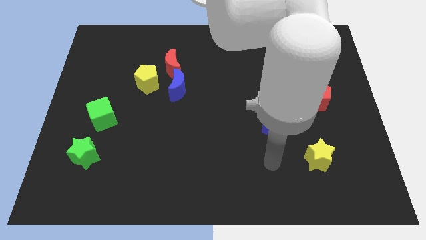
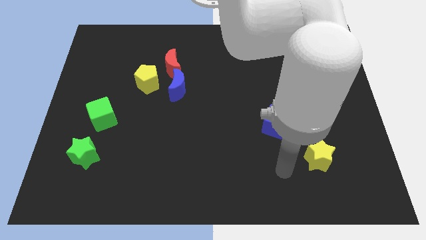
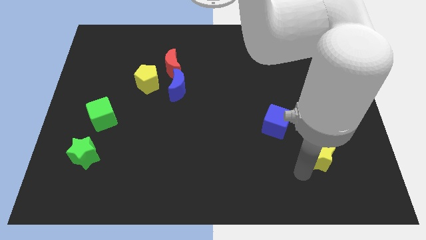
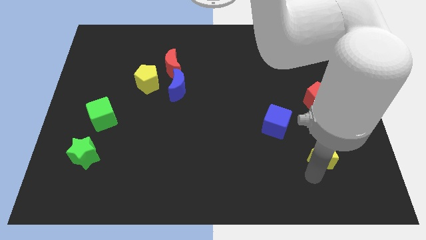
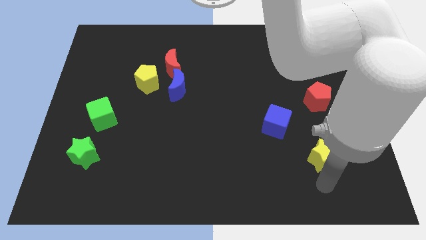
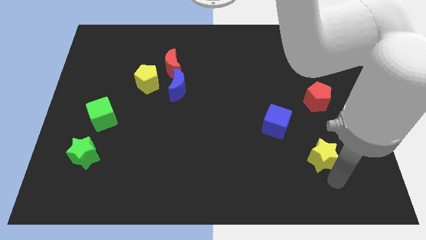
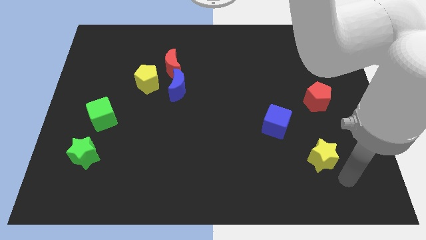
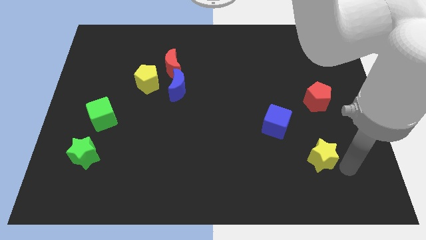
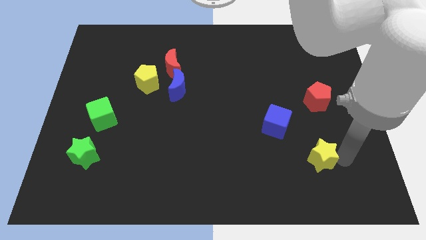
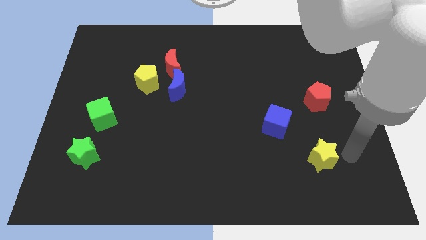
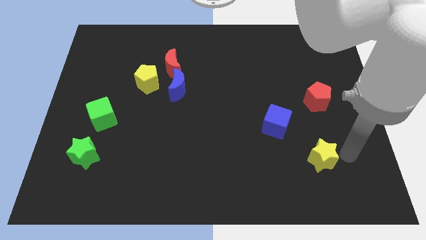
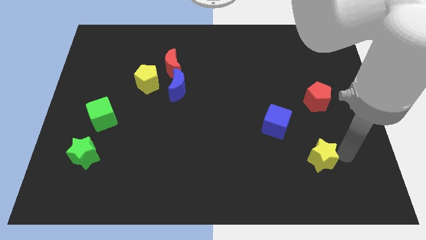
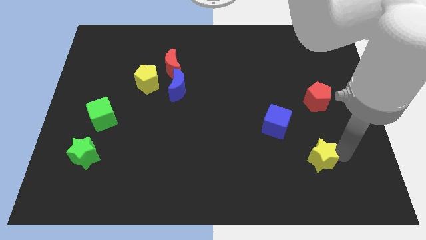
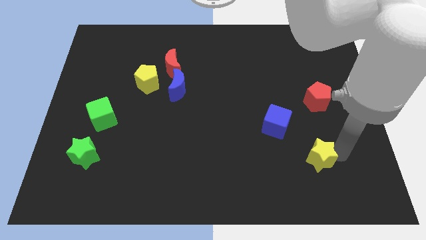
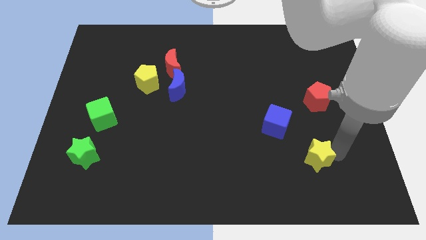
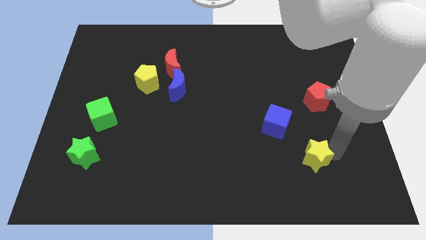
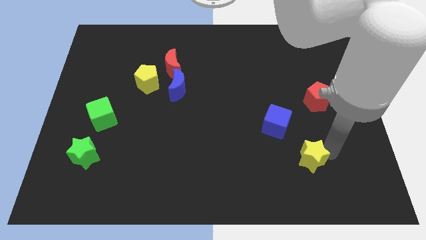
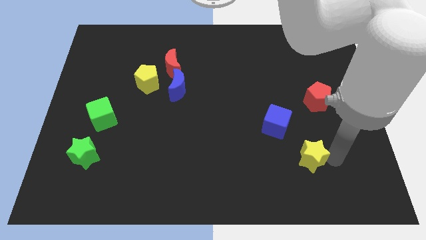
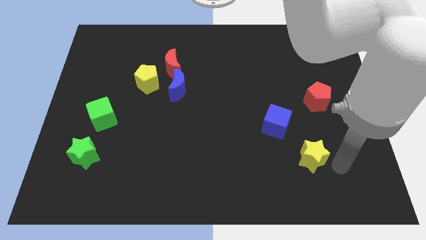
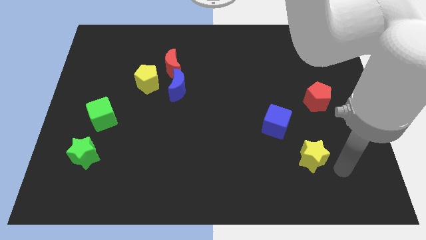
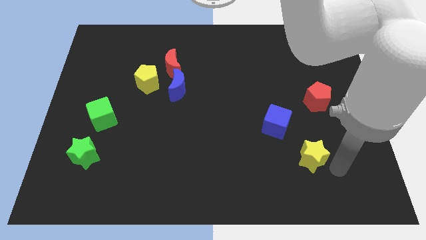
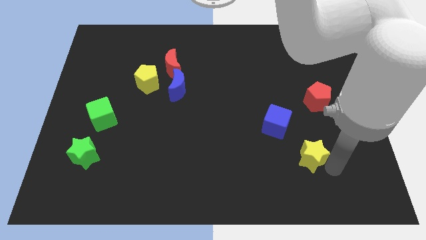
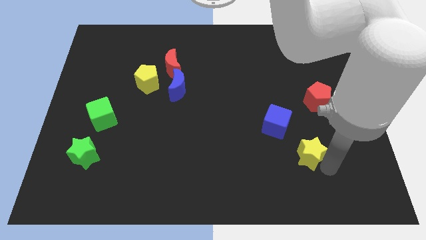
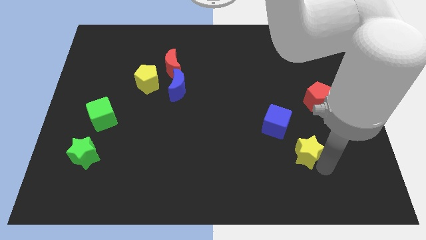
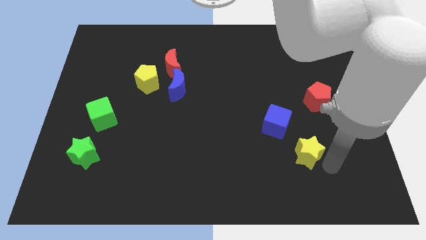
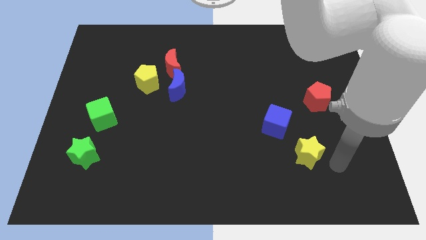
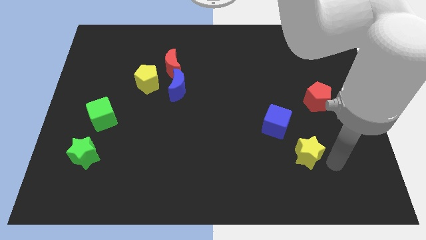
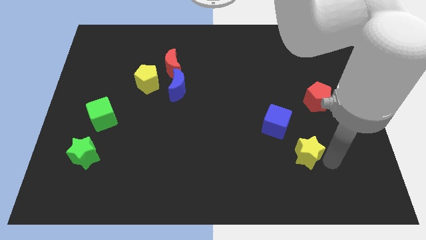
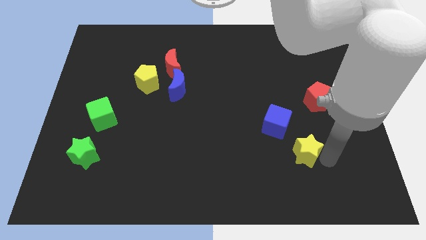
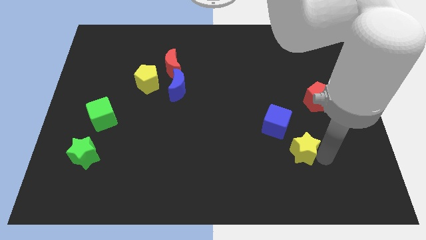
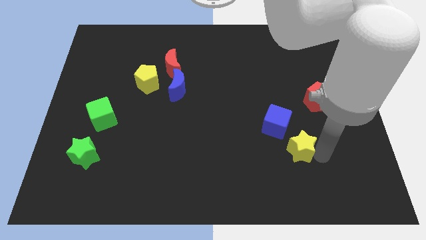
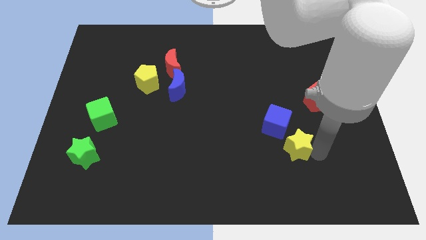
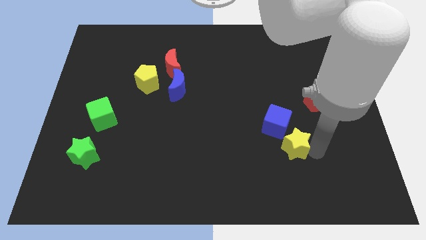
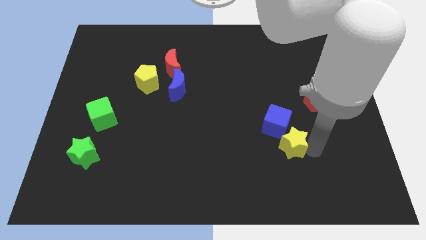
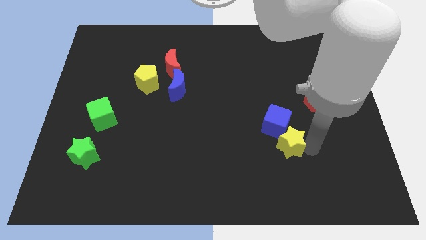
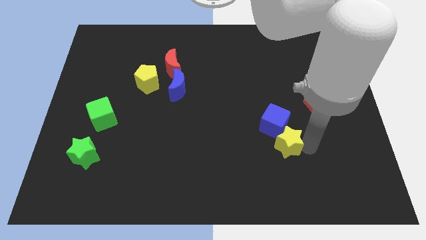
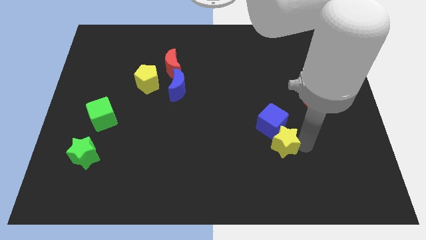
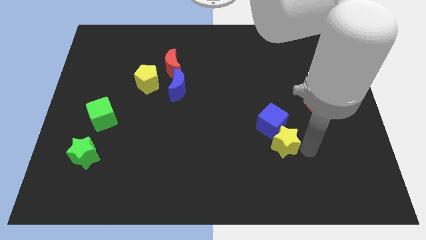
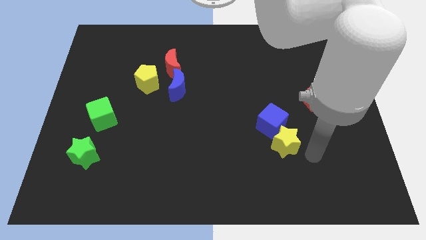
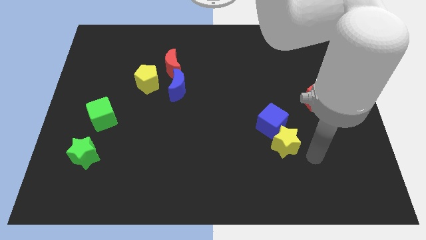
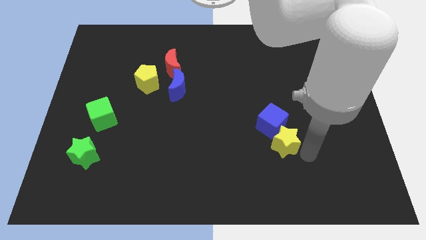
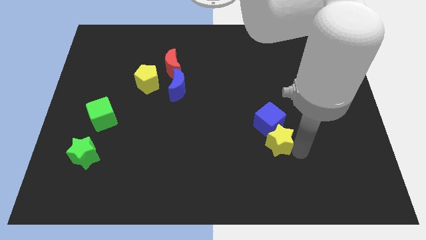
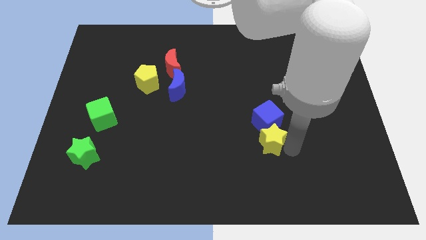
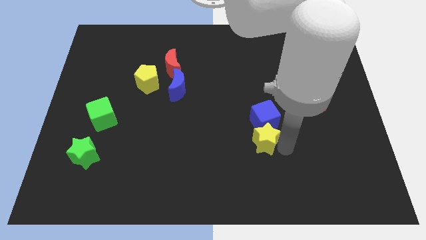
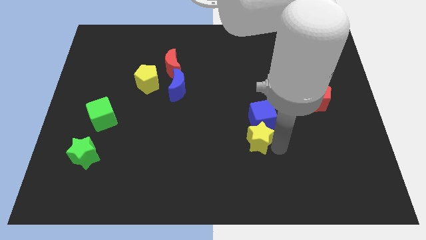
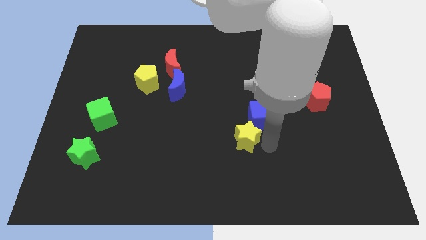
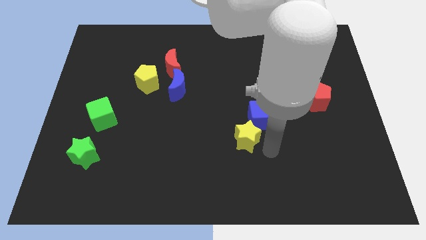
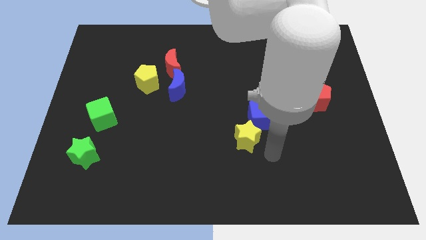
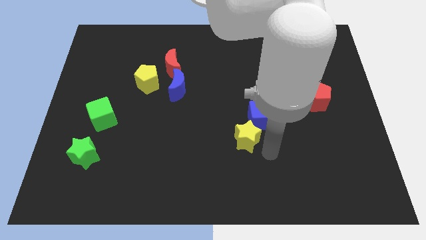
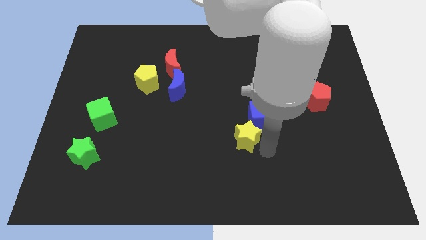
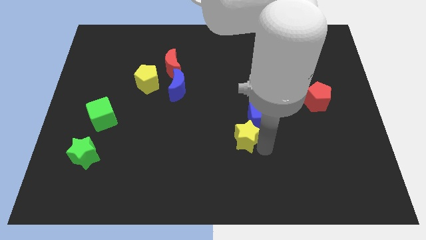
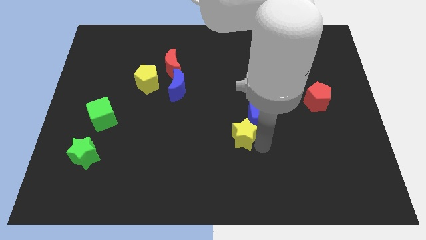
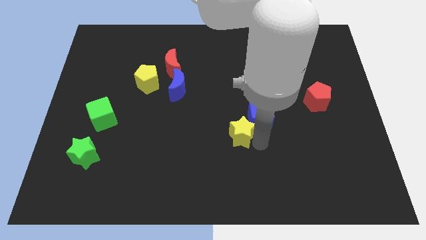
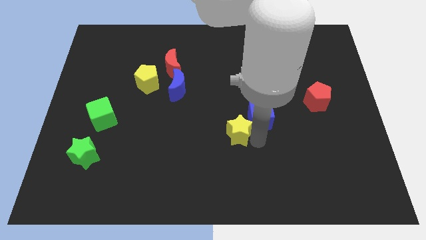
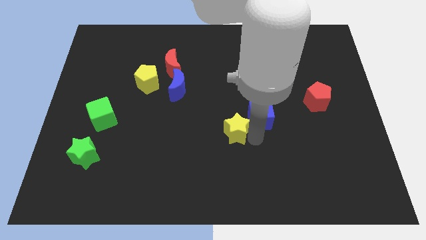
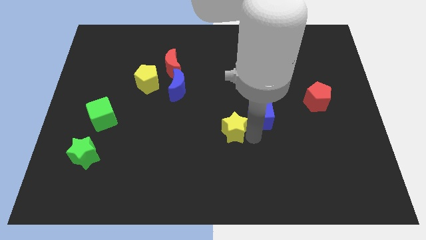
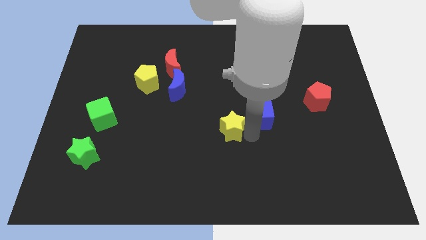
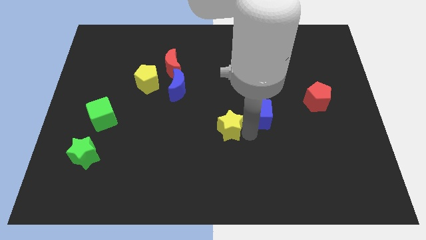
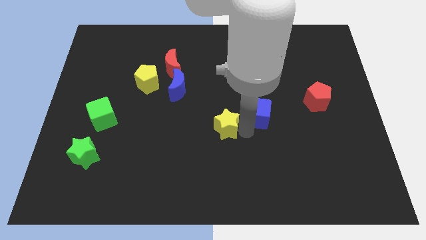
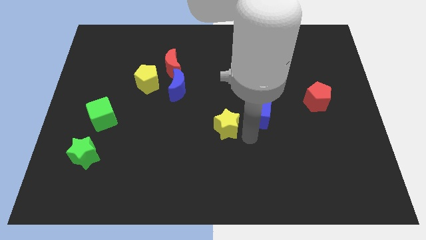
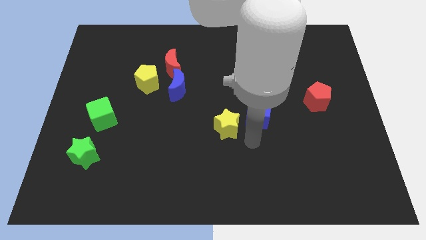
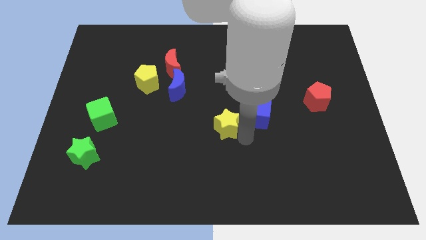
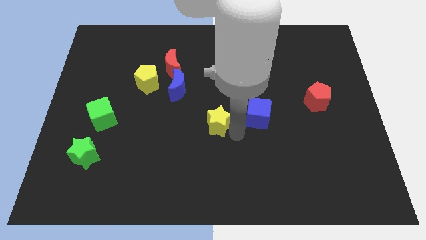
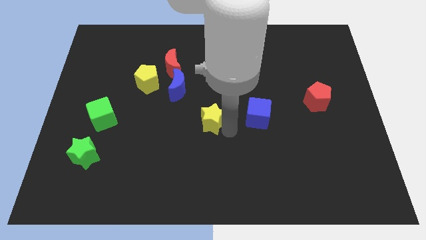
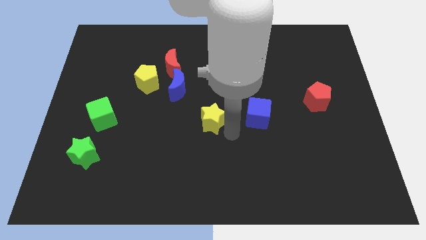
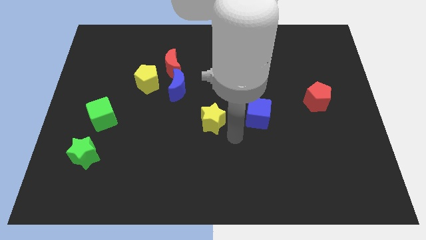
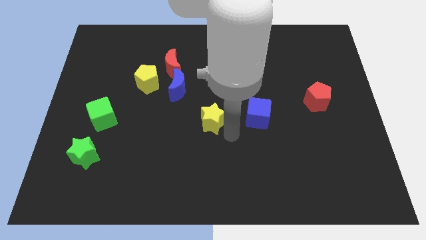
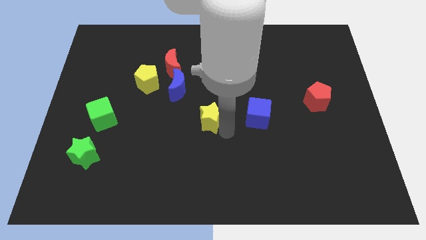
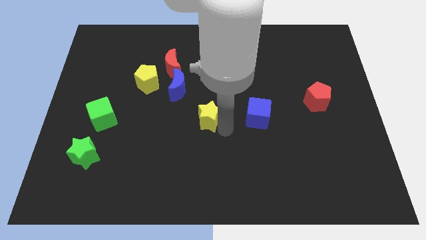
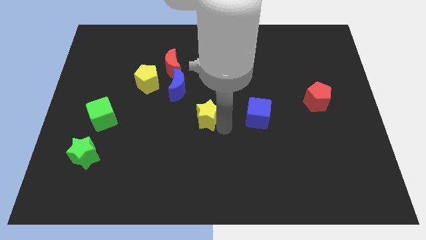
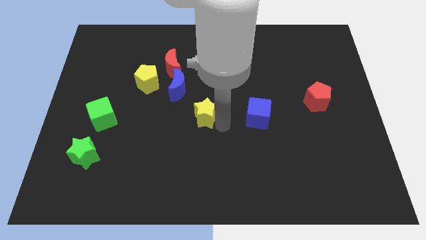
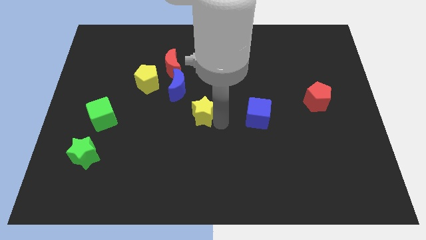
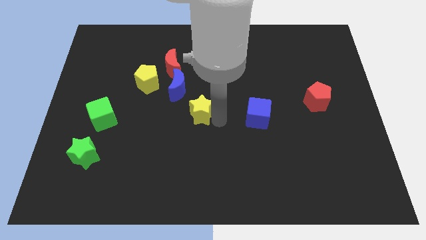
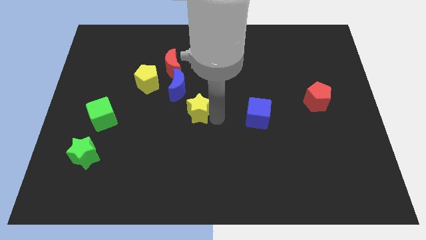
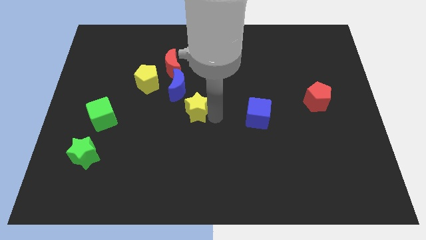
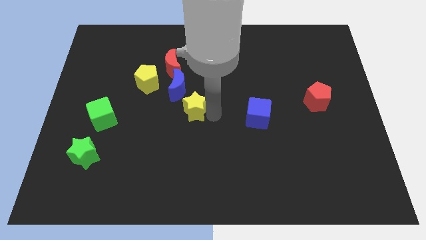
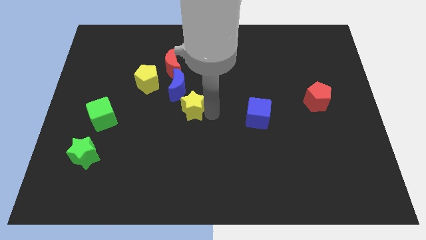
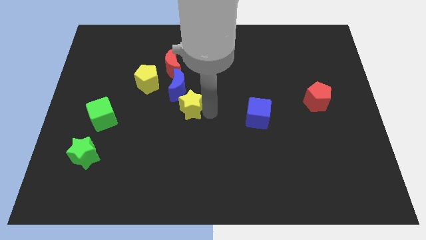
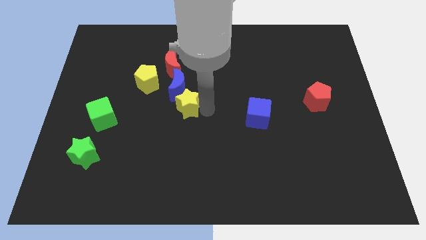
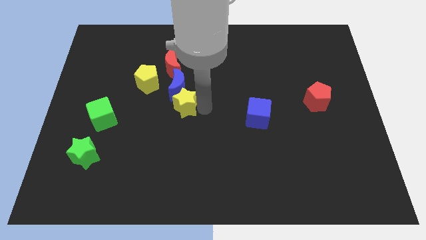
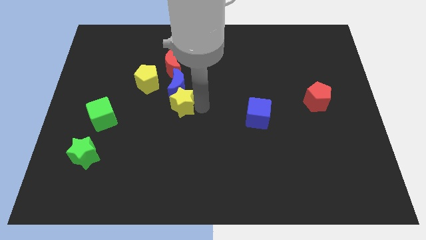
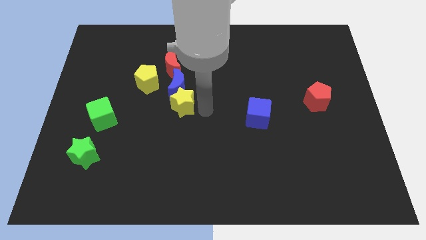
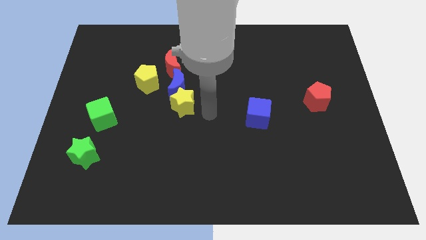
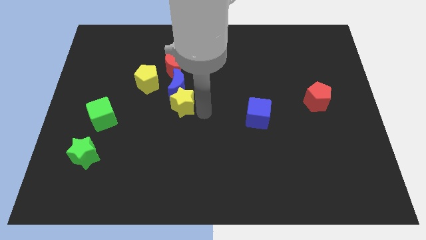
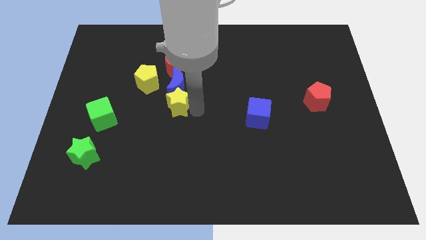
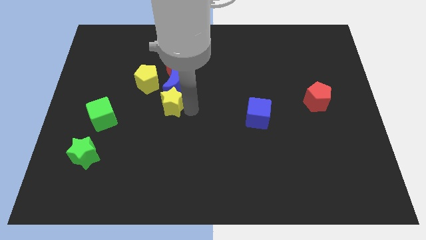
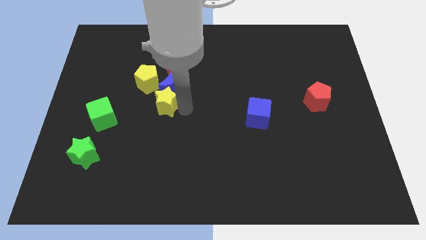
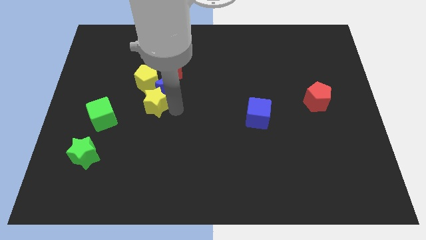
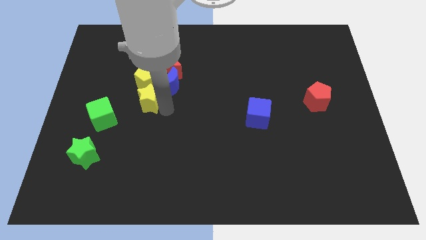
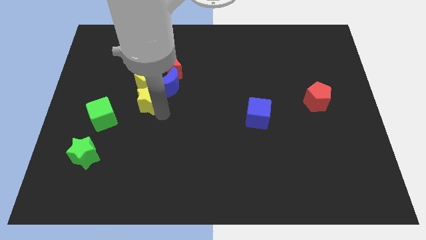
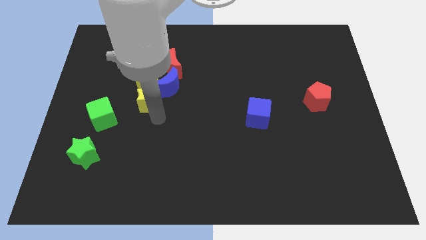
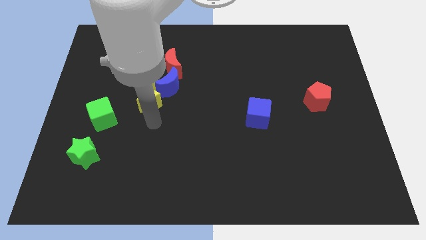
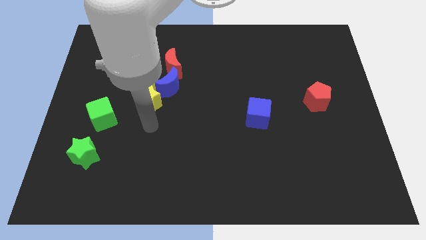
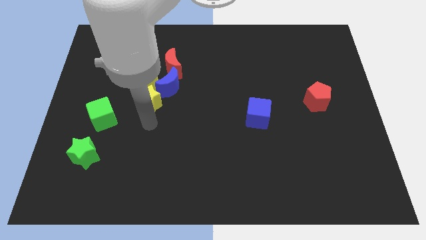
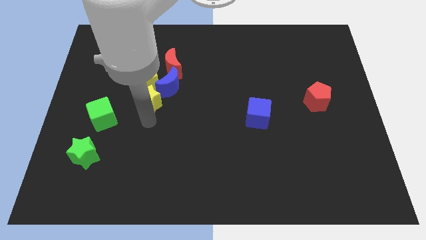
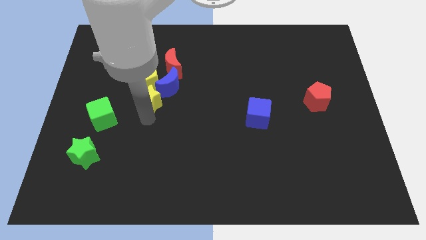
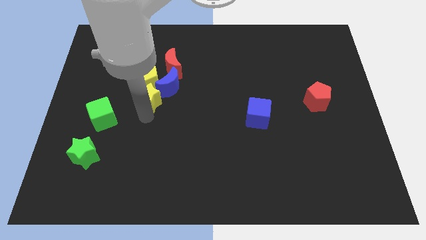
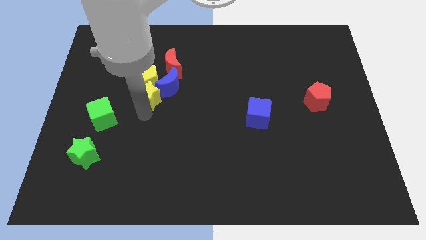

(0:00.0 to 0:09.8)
move the yellow star close to the yellow pentagon
